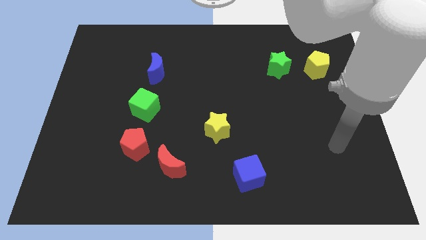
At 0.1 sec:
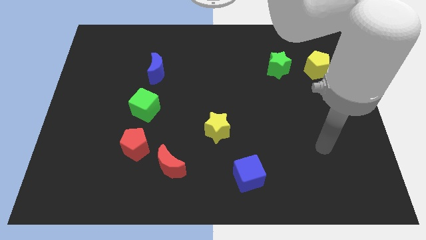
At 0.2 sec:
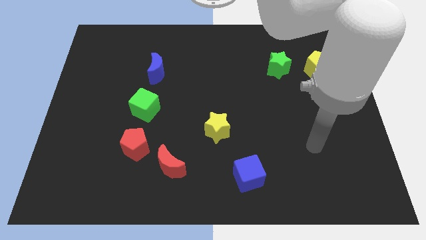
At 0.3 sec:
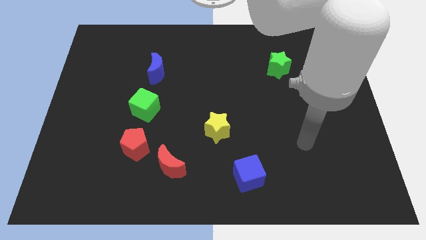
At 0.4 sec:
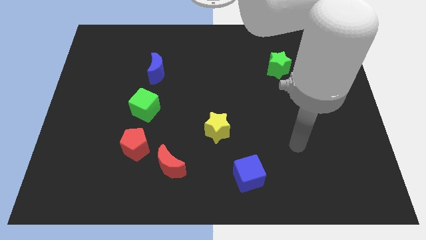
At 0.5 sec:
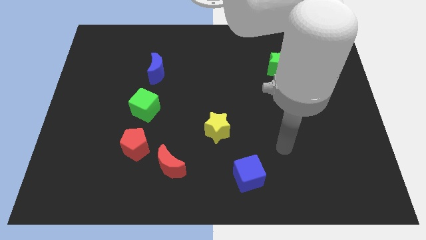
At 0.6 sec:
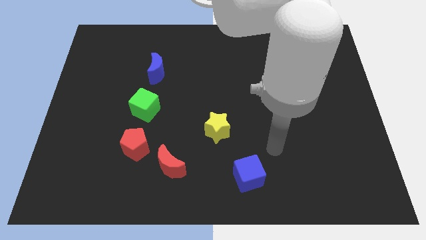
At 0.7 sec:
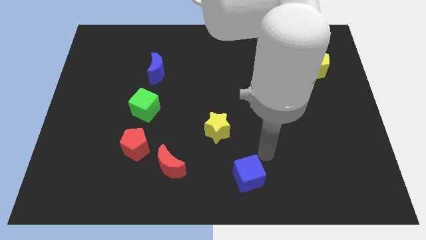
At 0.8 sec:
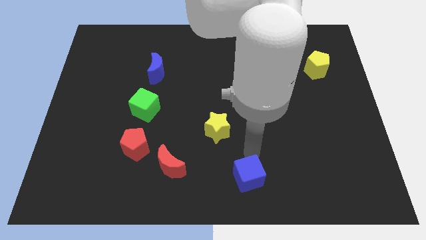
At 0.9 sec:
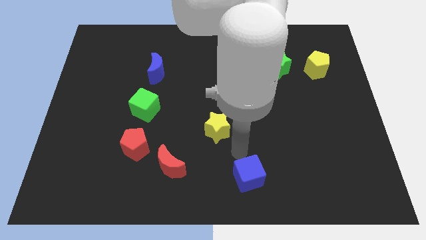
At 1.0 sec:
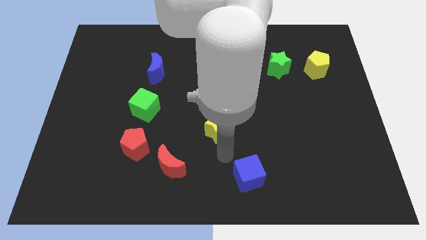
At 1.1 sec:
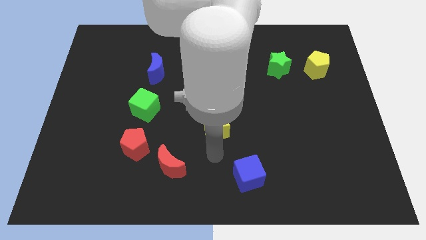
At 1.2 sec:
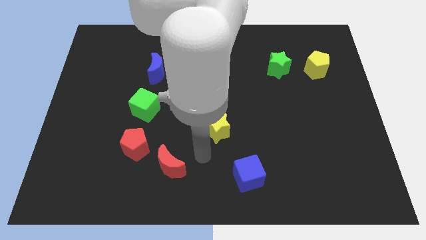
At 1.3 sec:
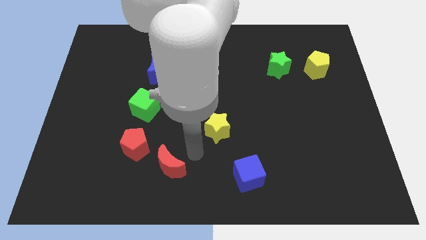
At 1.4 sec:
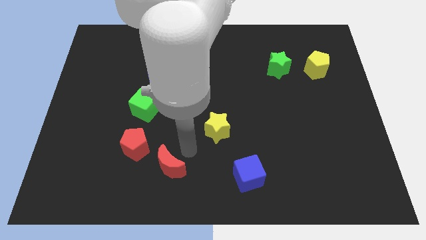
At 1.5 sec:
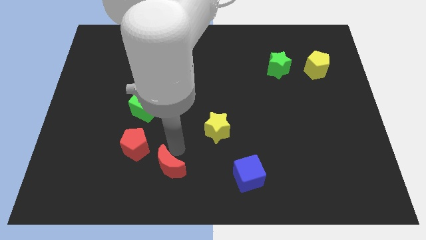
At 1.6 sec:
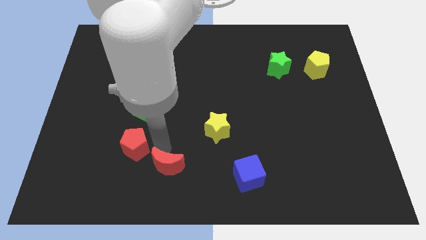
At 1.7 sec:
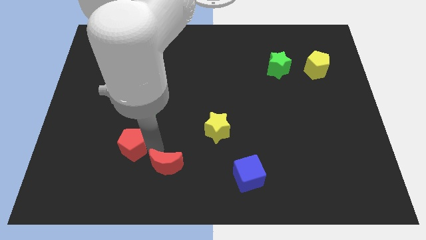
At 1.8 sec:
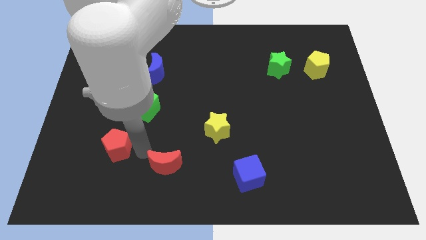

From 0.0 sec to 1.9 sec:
pull the red moon apart from the red pentagon

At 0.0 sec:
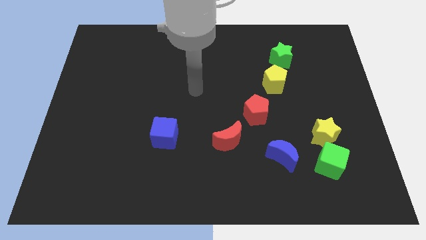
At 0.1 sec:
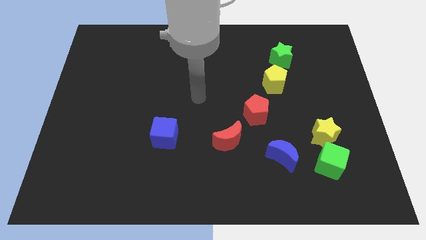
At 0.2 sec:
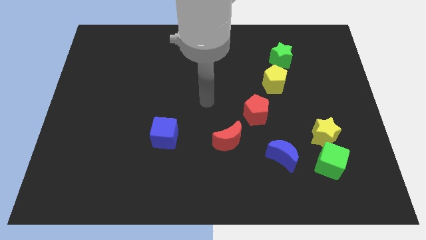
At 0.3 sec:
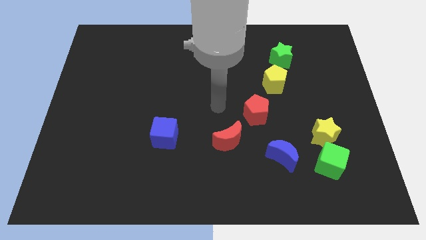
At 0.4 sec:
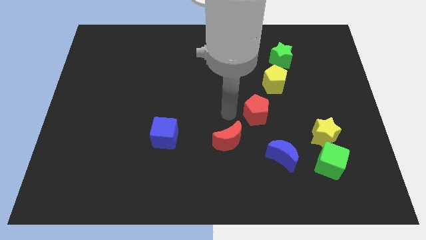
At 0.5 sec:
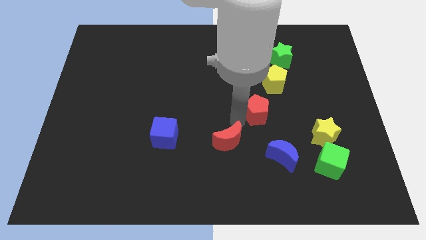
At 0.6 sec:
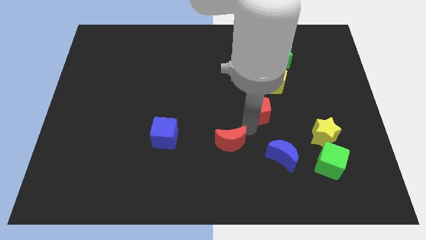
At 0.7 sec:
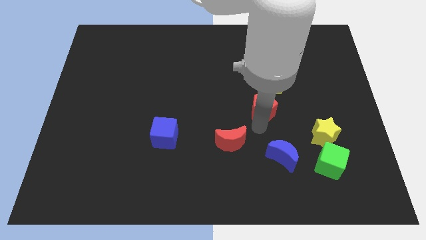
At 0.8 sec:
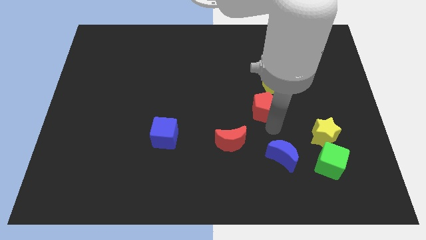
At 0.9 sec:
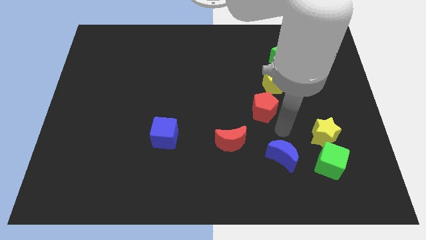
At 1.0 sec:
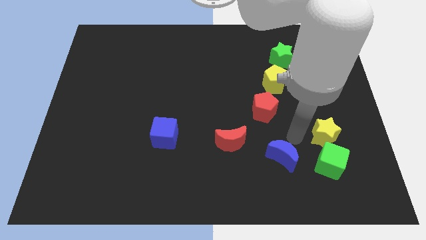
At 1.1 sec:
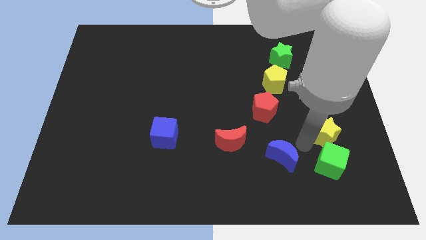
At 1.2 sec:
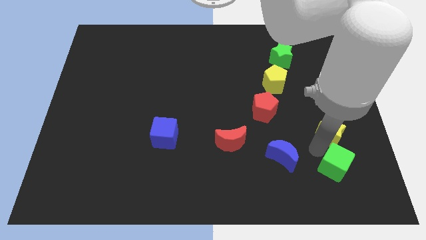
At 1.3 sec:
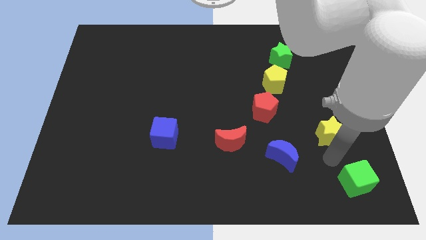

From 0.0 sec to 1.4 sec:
pull the yellow star apart from the green cube

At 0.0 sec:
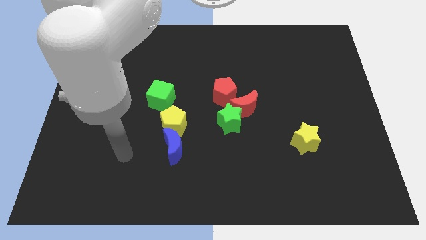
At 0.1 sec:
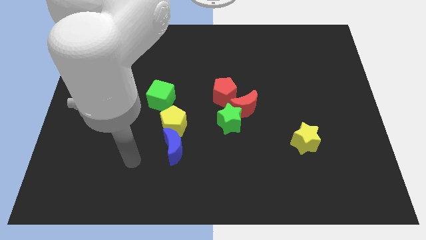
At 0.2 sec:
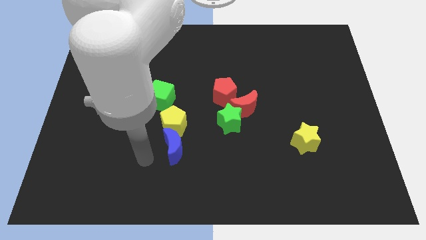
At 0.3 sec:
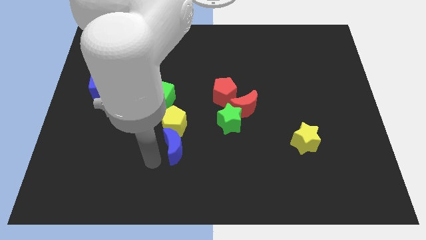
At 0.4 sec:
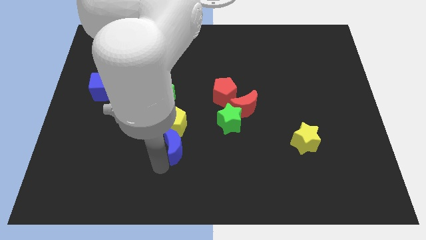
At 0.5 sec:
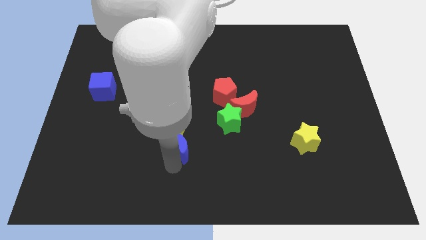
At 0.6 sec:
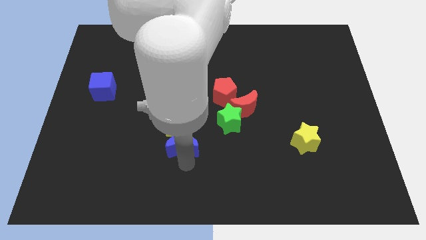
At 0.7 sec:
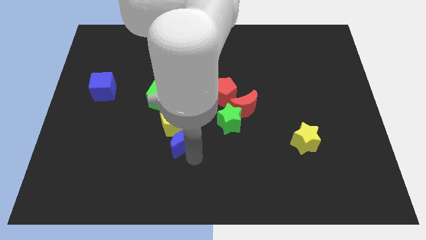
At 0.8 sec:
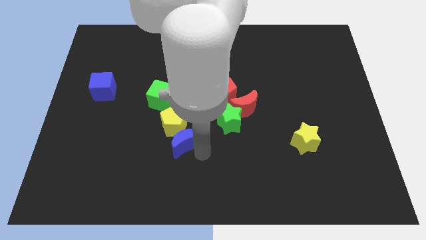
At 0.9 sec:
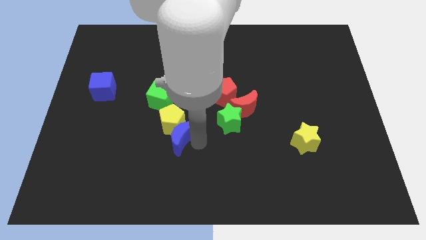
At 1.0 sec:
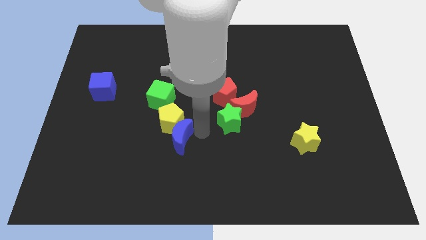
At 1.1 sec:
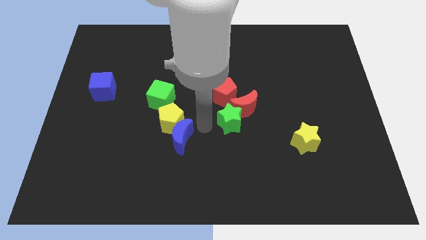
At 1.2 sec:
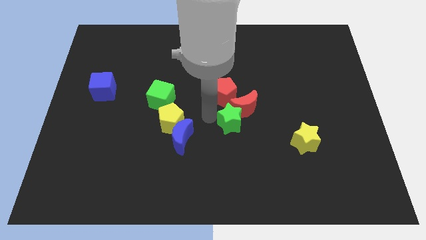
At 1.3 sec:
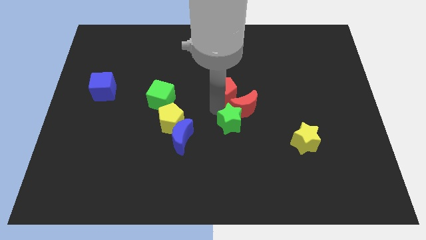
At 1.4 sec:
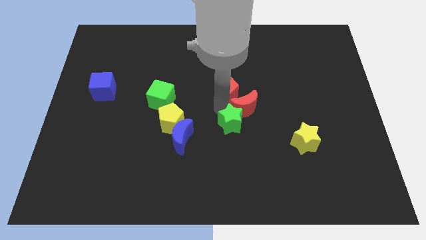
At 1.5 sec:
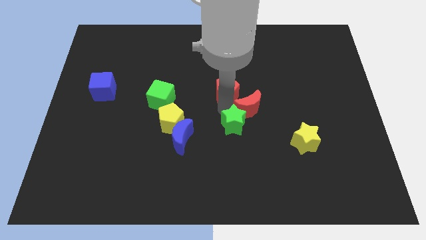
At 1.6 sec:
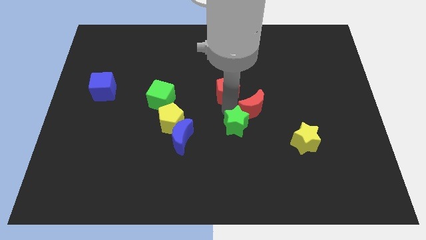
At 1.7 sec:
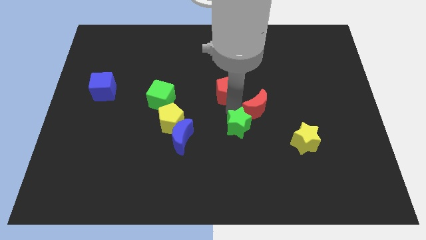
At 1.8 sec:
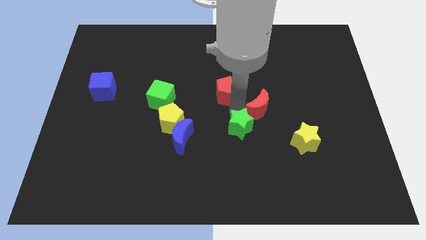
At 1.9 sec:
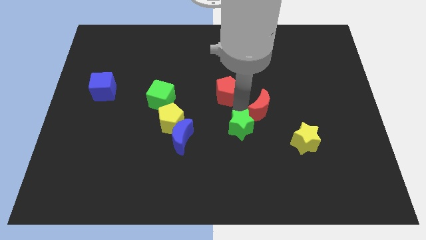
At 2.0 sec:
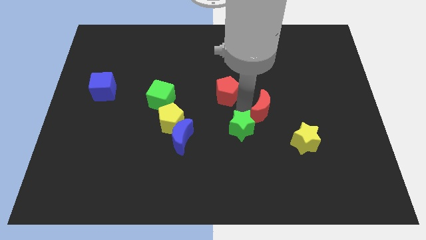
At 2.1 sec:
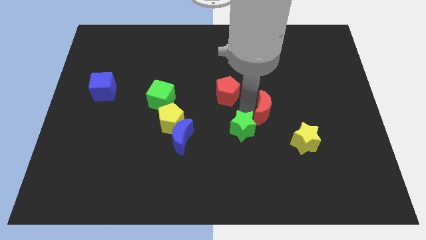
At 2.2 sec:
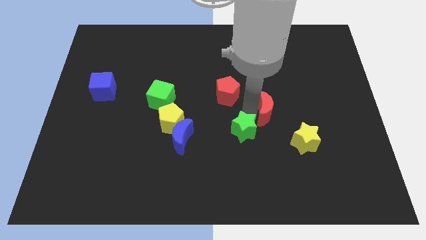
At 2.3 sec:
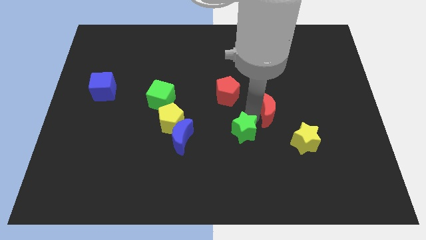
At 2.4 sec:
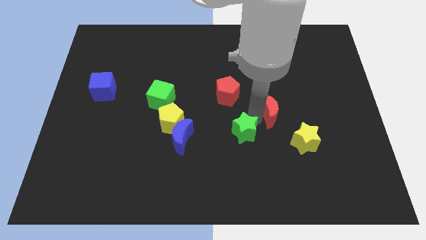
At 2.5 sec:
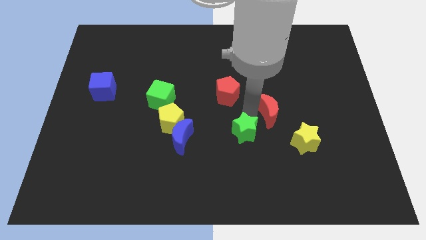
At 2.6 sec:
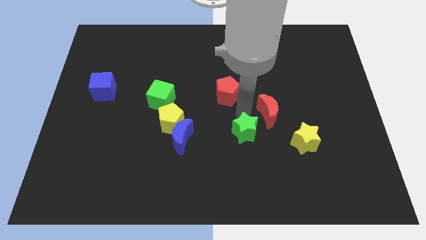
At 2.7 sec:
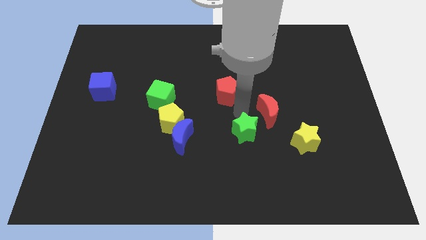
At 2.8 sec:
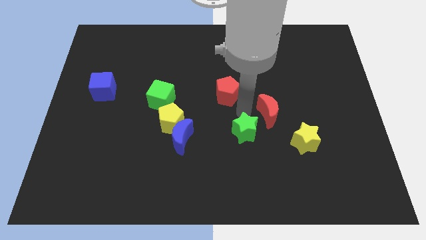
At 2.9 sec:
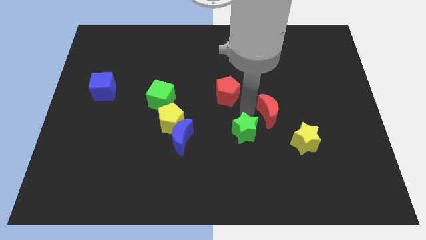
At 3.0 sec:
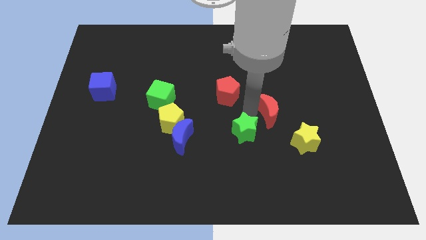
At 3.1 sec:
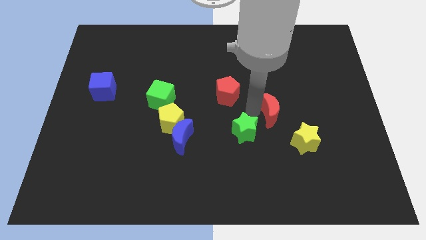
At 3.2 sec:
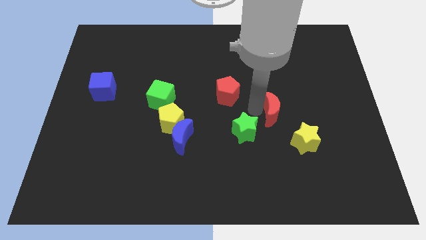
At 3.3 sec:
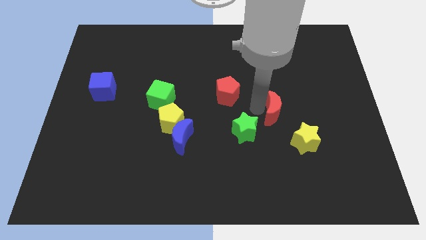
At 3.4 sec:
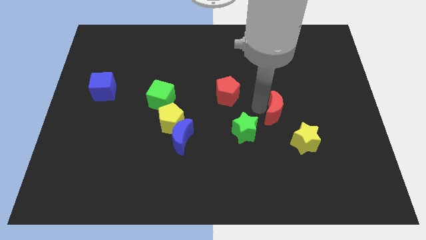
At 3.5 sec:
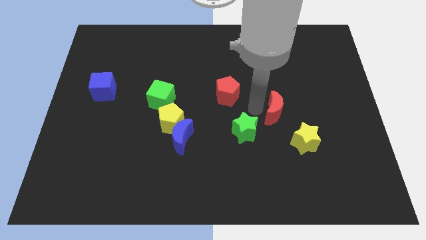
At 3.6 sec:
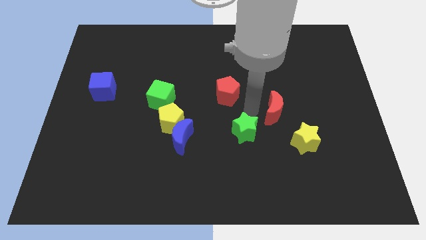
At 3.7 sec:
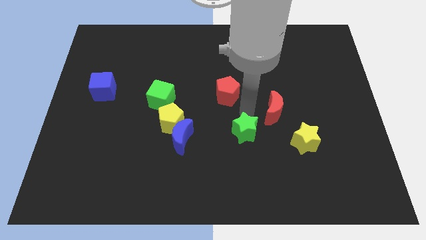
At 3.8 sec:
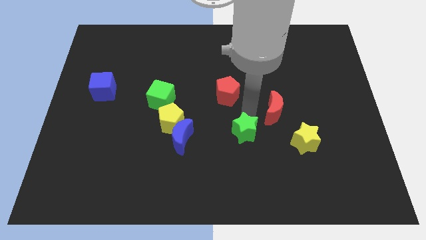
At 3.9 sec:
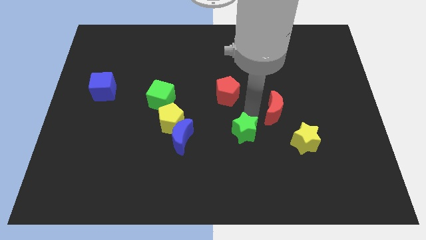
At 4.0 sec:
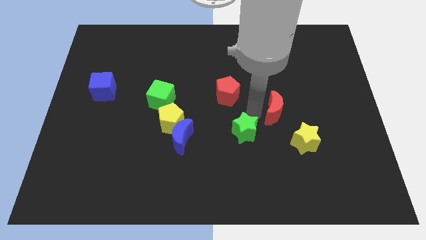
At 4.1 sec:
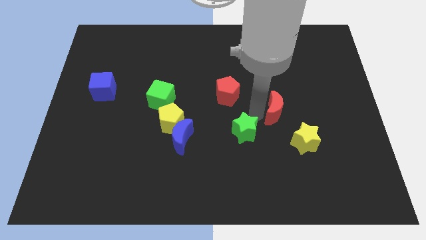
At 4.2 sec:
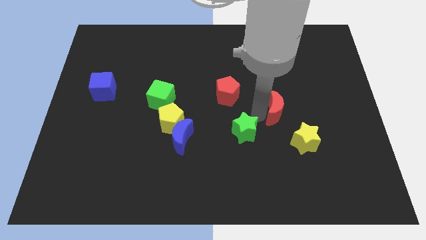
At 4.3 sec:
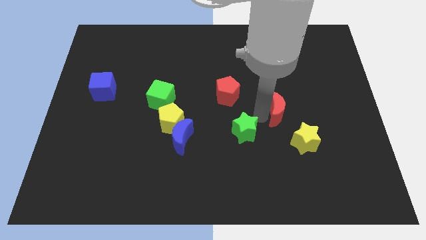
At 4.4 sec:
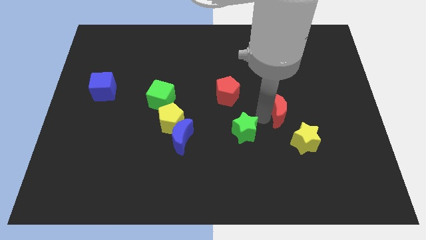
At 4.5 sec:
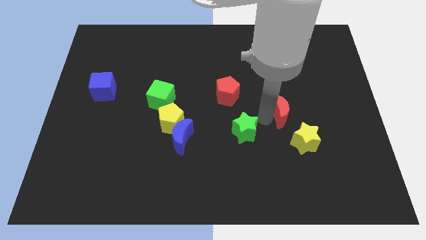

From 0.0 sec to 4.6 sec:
separate the red moon from the green star and red pentagon

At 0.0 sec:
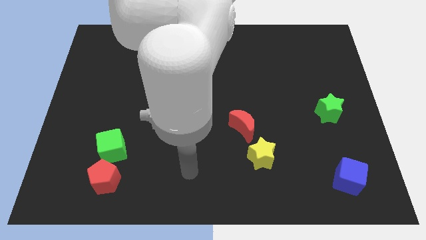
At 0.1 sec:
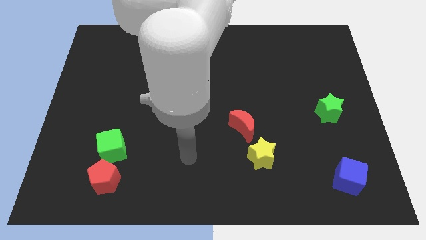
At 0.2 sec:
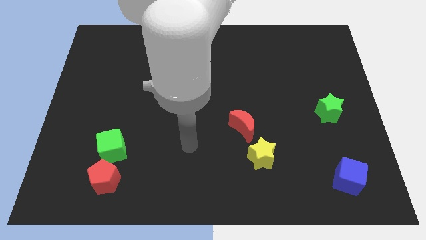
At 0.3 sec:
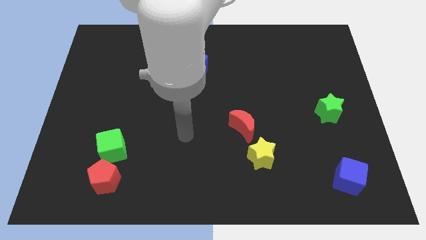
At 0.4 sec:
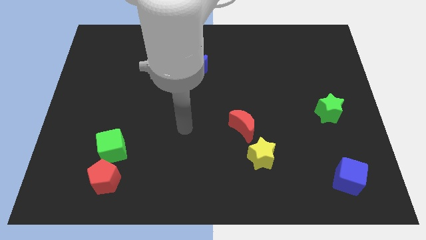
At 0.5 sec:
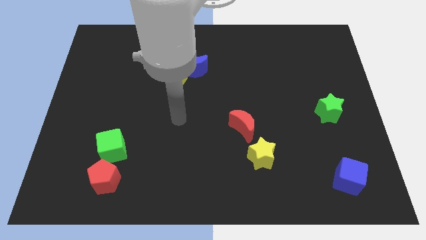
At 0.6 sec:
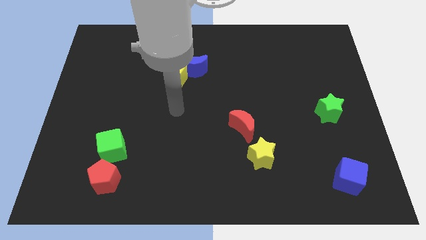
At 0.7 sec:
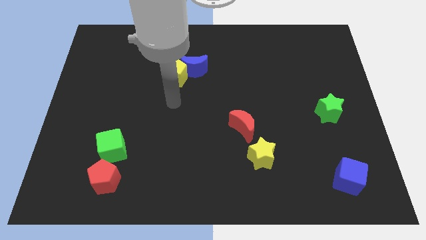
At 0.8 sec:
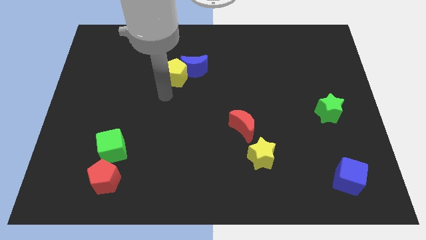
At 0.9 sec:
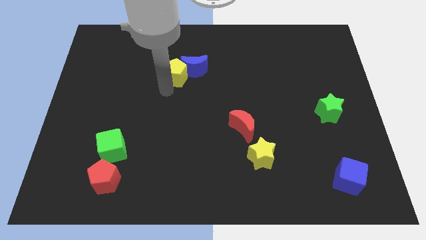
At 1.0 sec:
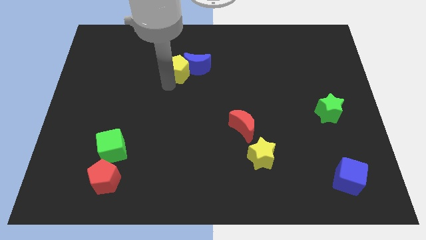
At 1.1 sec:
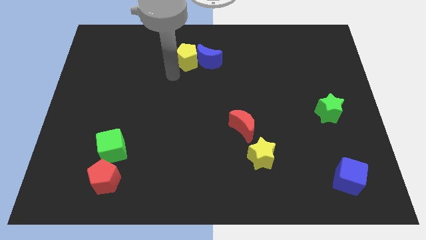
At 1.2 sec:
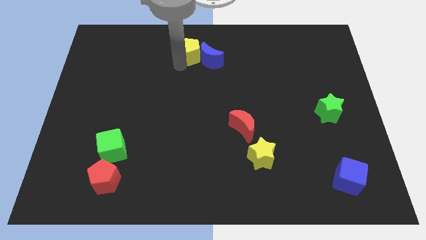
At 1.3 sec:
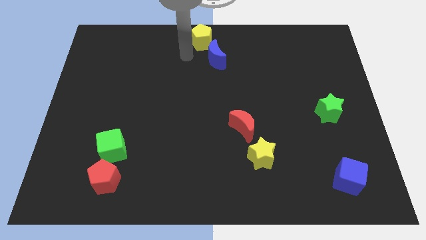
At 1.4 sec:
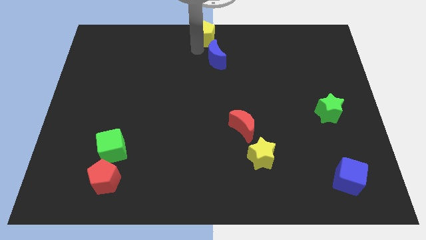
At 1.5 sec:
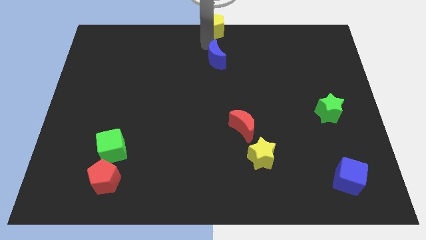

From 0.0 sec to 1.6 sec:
pull the blue moon apart from the yellow pentagon
